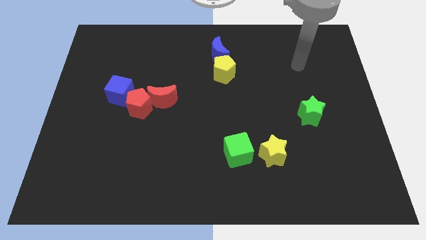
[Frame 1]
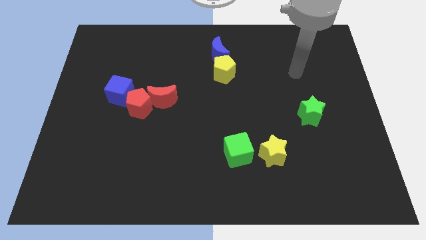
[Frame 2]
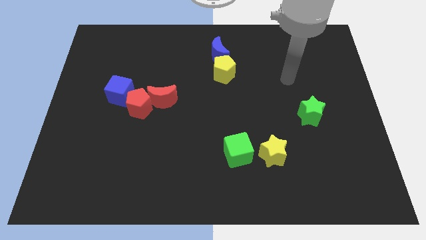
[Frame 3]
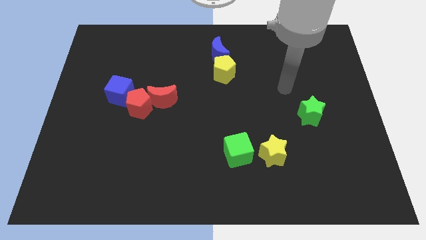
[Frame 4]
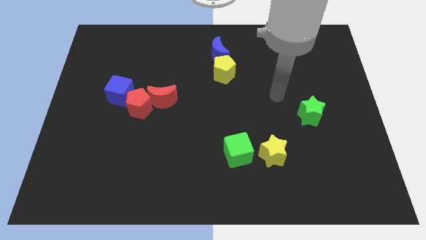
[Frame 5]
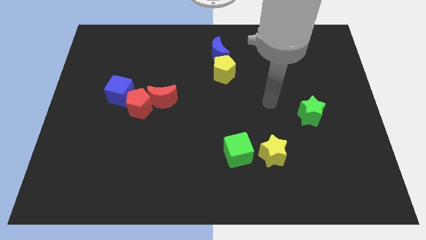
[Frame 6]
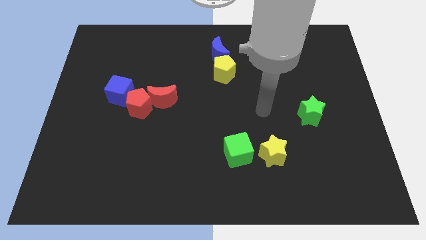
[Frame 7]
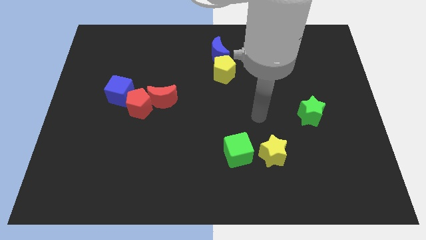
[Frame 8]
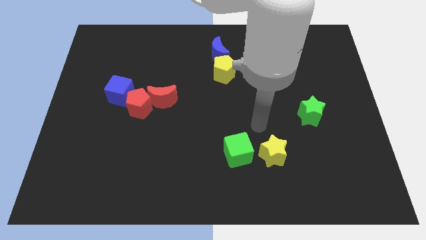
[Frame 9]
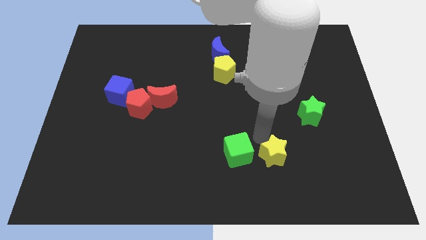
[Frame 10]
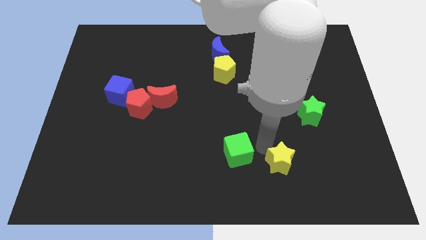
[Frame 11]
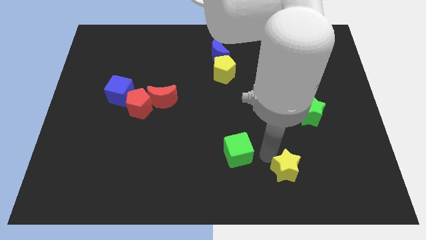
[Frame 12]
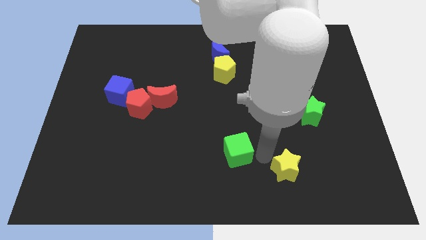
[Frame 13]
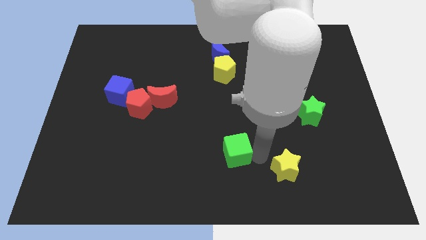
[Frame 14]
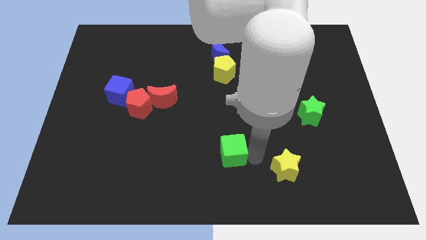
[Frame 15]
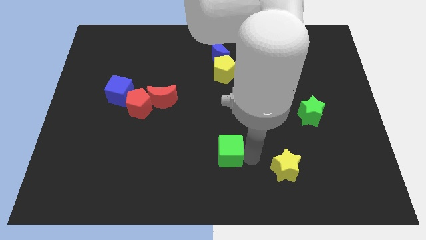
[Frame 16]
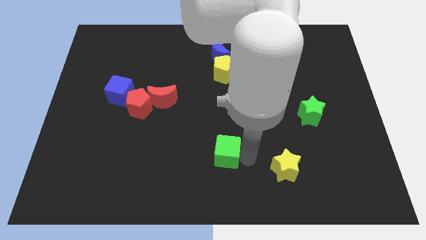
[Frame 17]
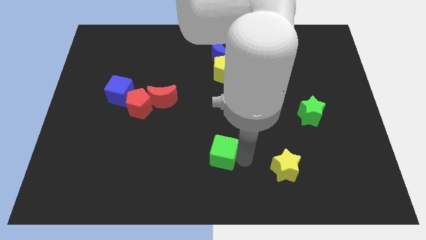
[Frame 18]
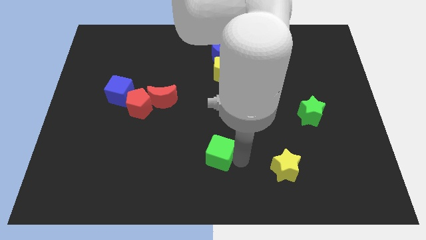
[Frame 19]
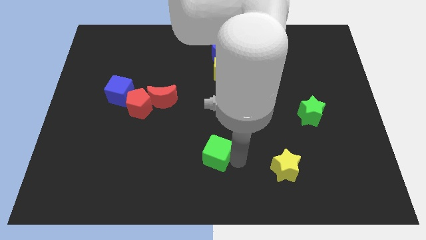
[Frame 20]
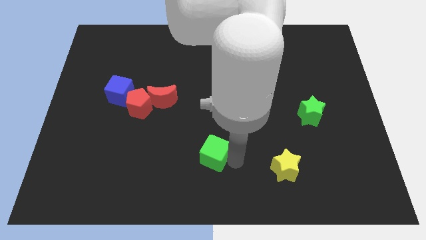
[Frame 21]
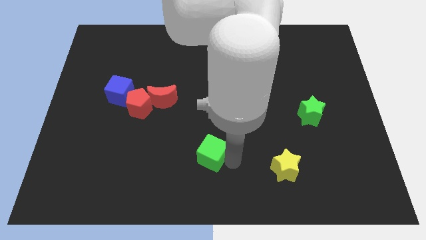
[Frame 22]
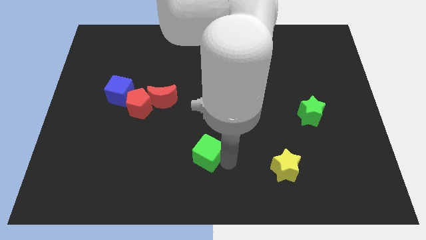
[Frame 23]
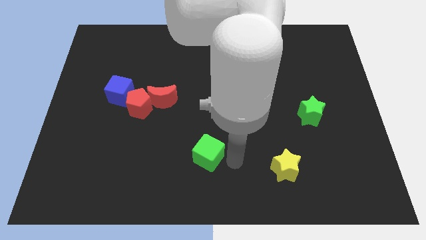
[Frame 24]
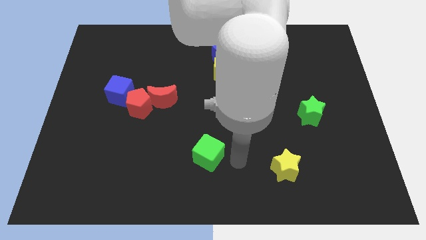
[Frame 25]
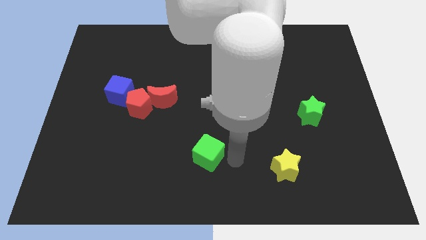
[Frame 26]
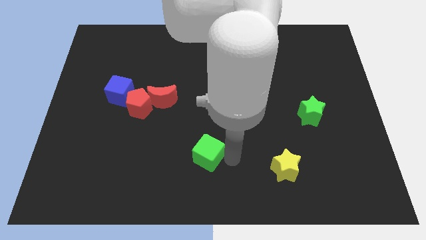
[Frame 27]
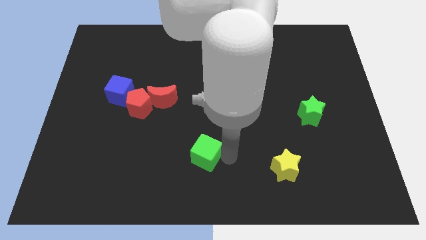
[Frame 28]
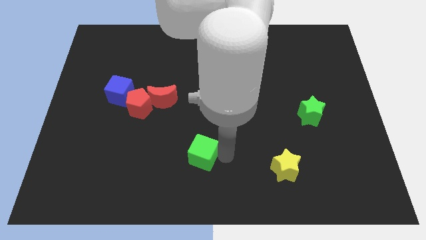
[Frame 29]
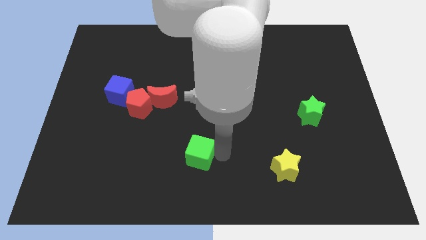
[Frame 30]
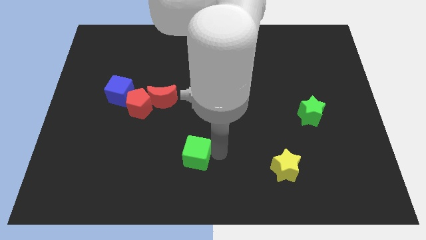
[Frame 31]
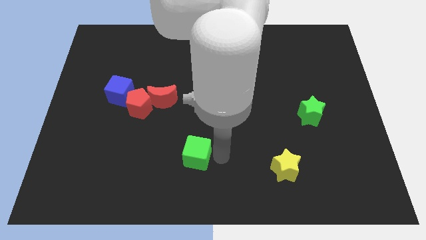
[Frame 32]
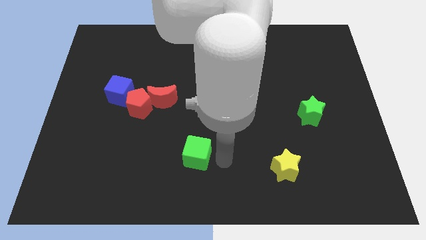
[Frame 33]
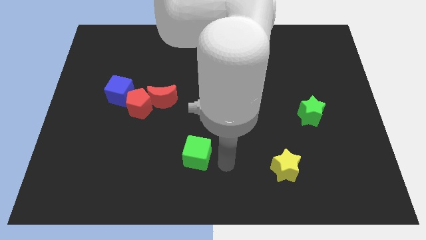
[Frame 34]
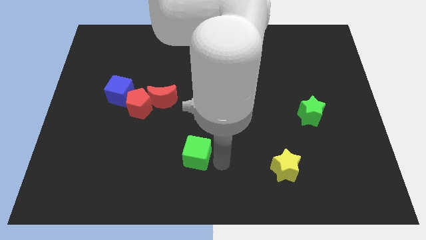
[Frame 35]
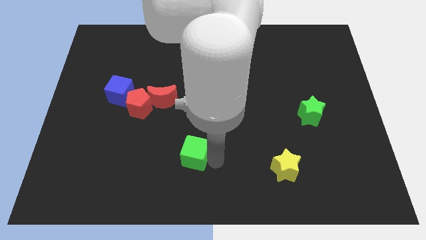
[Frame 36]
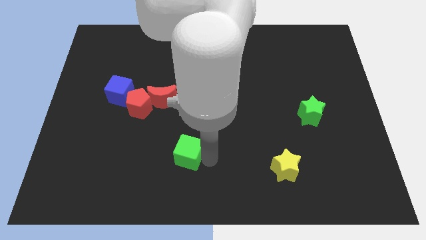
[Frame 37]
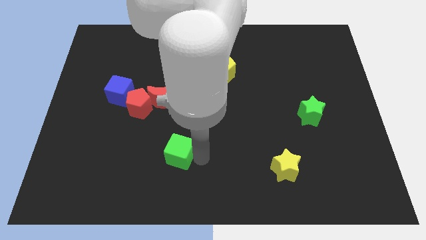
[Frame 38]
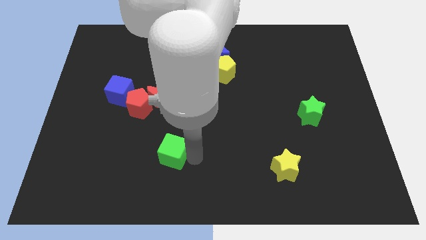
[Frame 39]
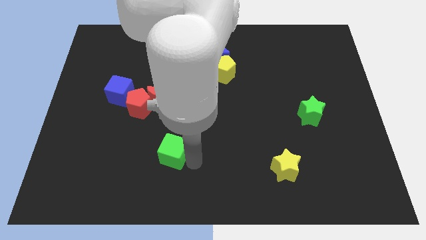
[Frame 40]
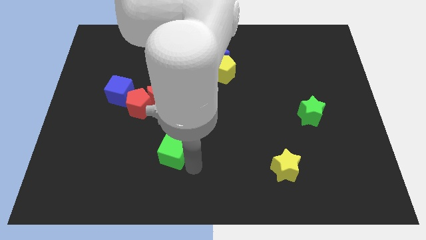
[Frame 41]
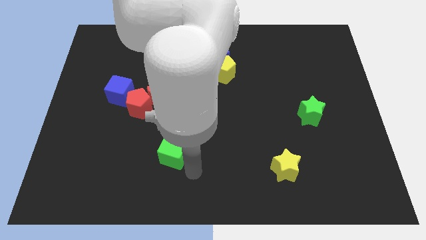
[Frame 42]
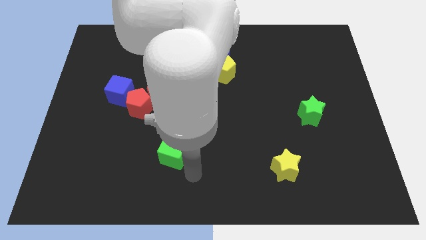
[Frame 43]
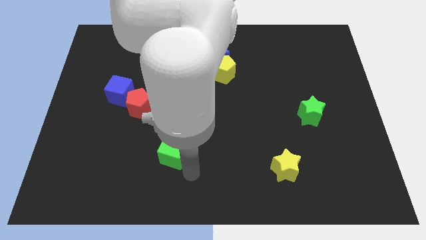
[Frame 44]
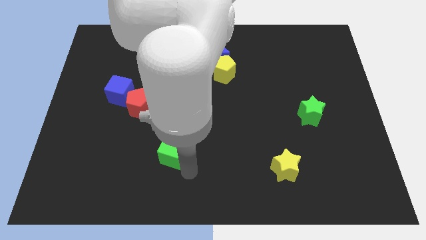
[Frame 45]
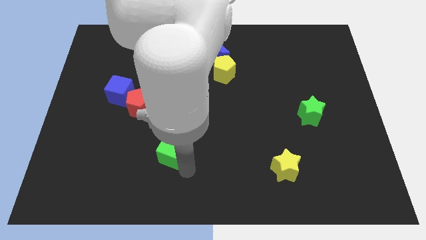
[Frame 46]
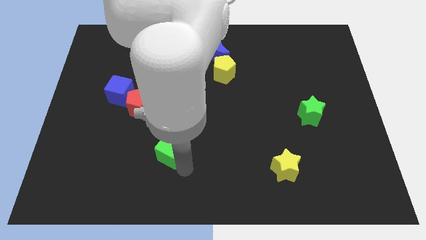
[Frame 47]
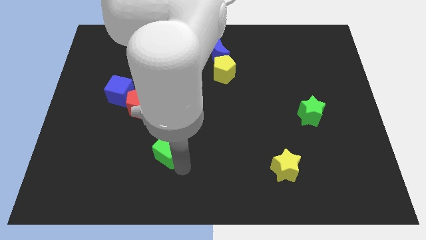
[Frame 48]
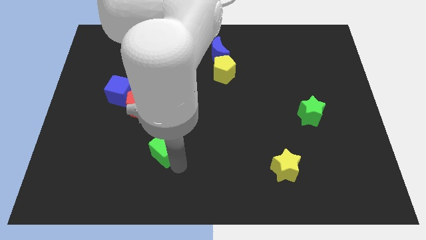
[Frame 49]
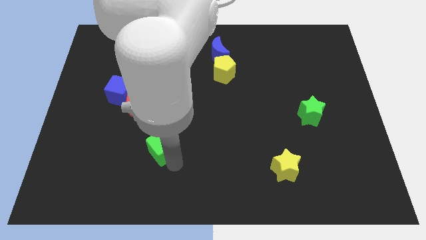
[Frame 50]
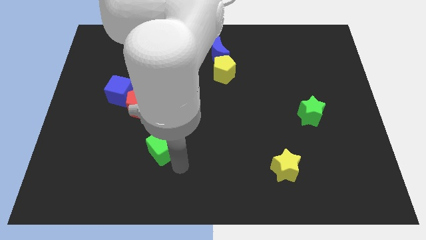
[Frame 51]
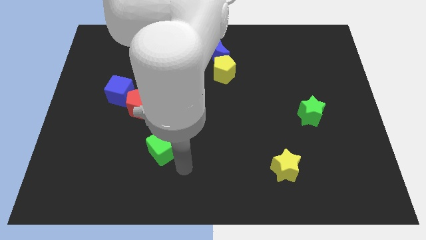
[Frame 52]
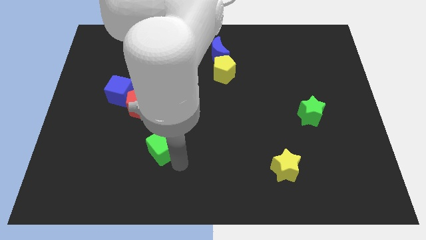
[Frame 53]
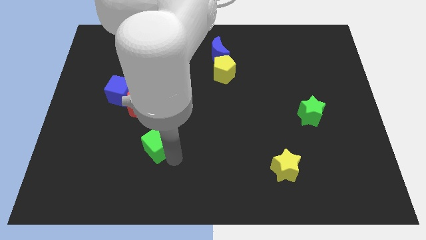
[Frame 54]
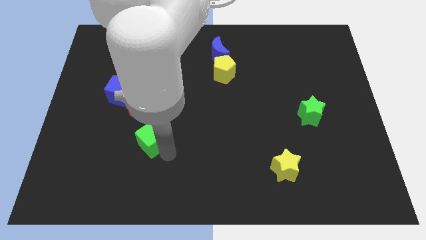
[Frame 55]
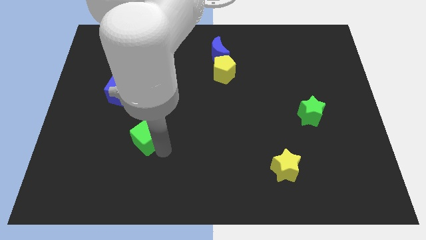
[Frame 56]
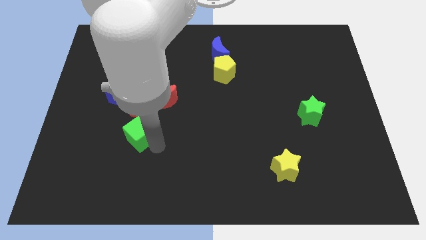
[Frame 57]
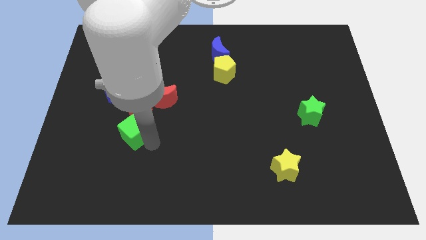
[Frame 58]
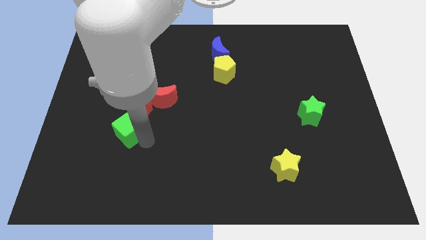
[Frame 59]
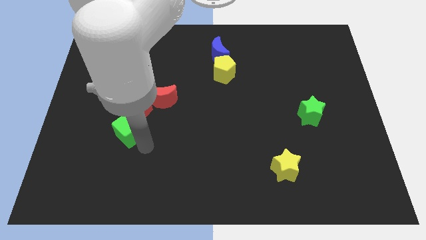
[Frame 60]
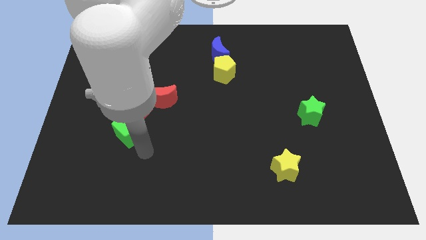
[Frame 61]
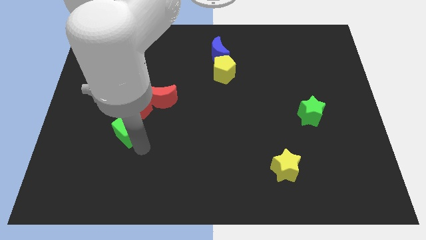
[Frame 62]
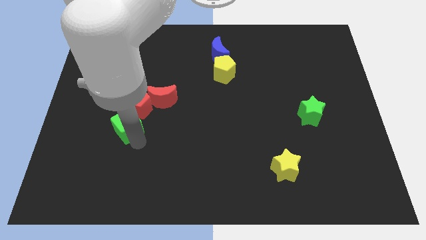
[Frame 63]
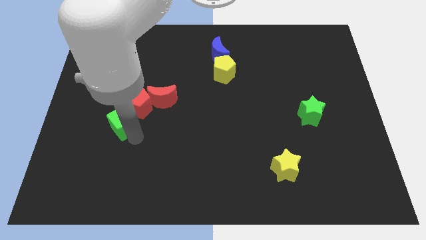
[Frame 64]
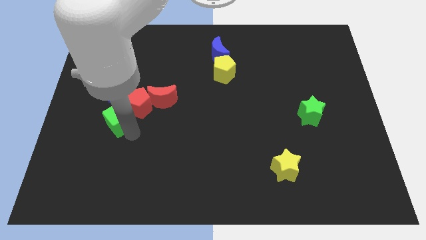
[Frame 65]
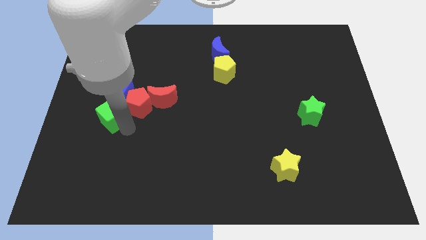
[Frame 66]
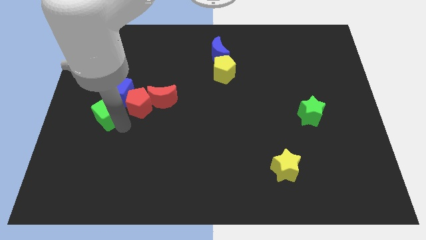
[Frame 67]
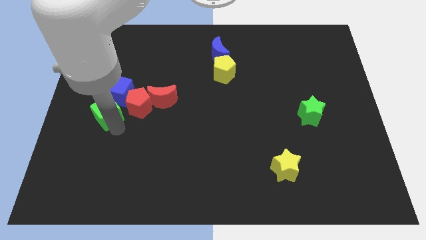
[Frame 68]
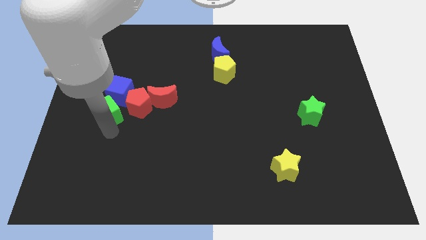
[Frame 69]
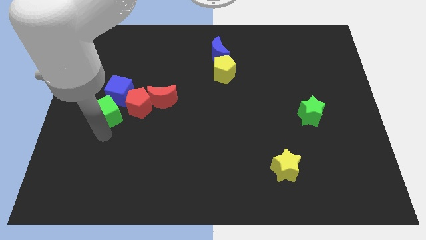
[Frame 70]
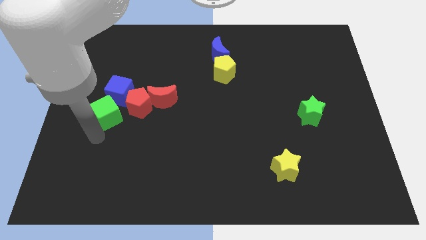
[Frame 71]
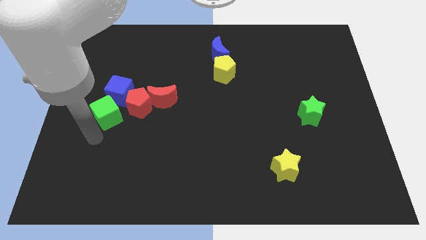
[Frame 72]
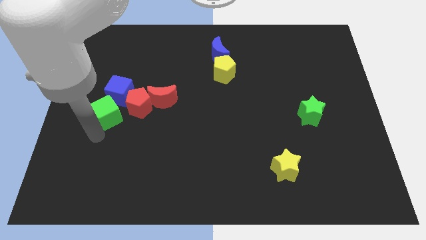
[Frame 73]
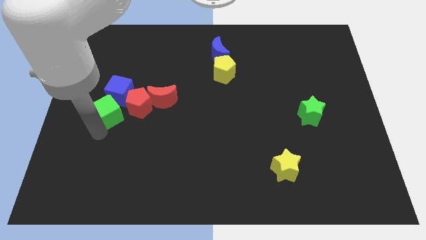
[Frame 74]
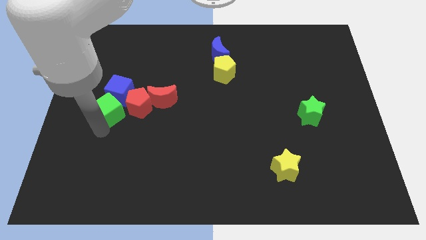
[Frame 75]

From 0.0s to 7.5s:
move the green cube to the blue cube

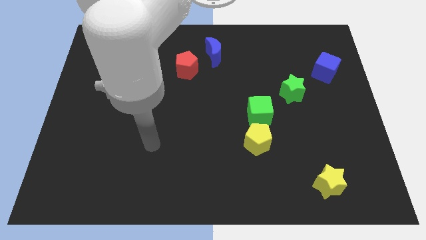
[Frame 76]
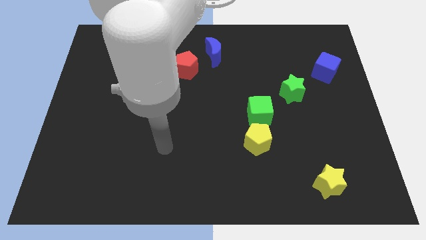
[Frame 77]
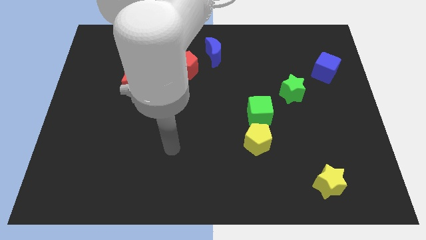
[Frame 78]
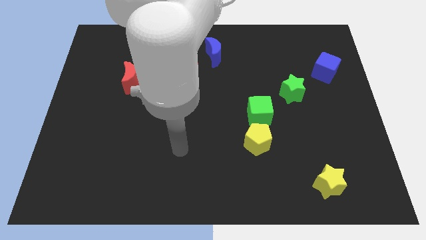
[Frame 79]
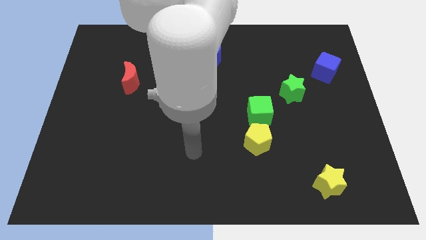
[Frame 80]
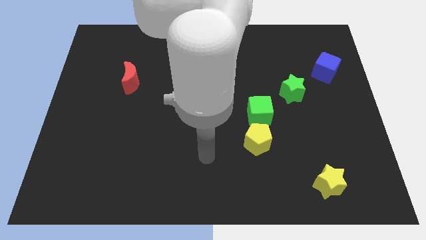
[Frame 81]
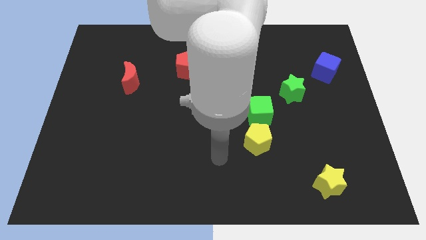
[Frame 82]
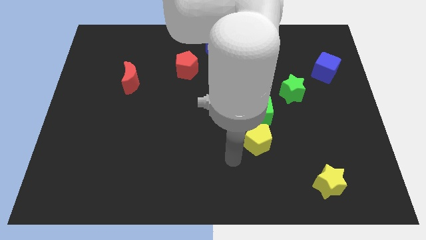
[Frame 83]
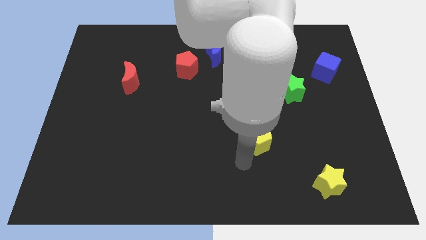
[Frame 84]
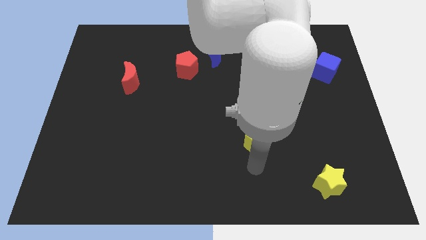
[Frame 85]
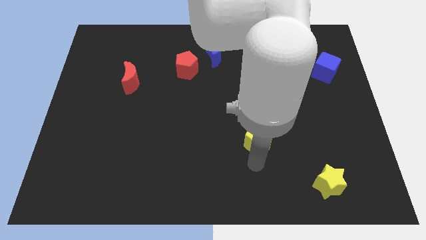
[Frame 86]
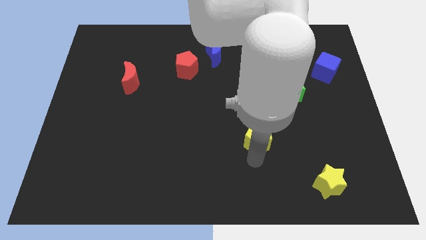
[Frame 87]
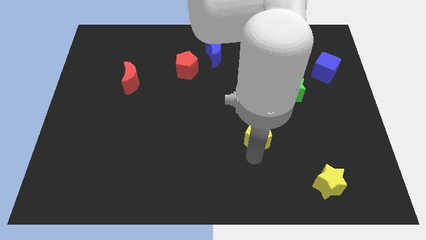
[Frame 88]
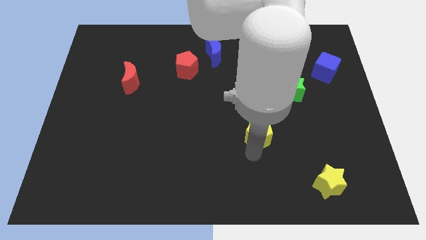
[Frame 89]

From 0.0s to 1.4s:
put the yellow pentagon close to the green cube
